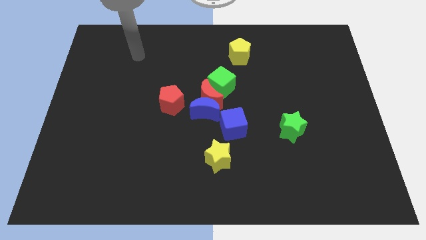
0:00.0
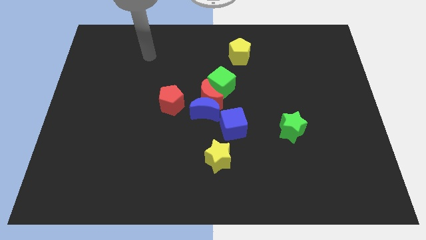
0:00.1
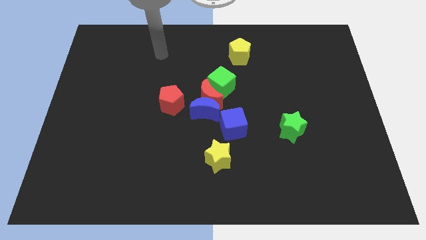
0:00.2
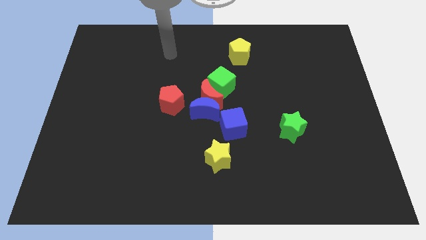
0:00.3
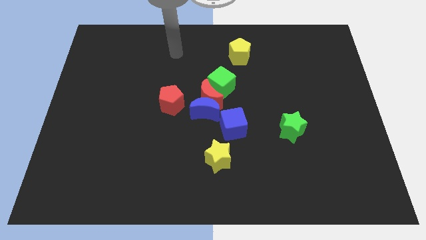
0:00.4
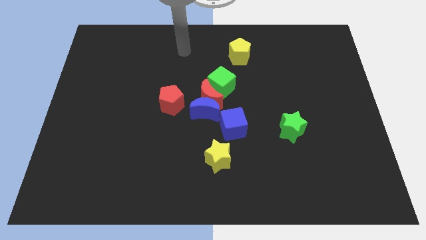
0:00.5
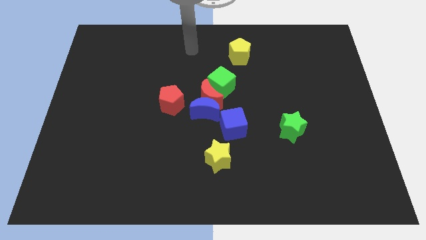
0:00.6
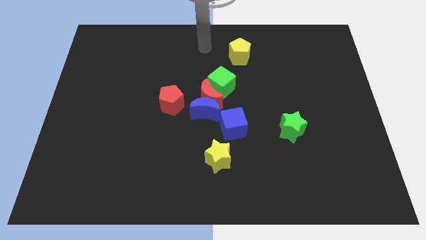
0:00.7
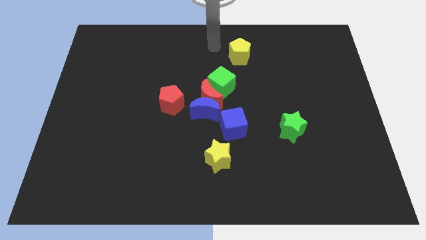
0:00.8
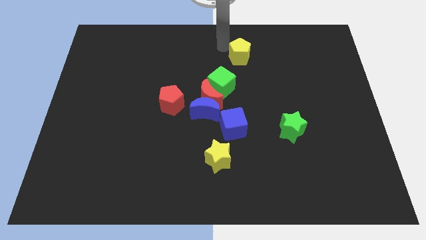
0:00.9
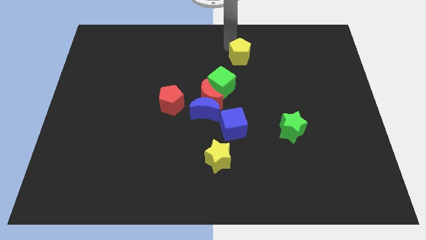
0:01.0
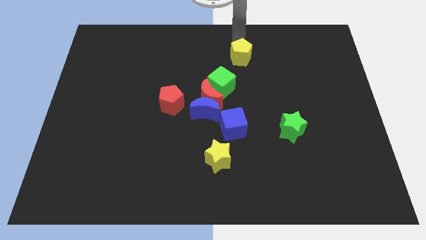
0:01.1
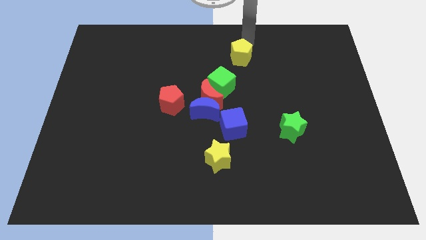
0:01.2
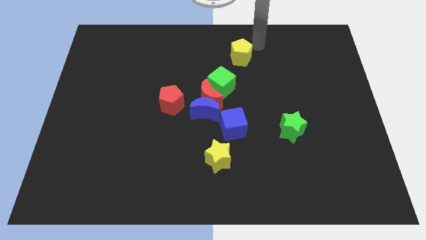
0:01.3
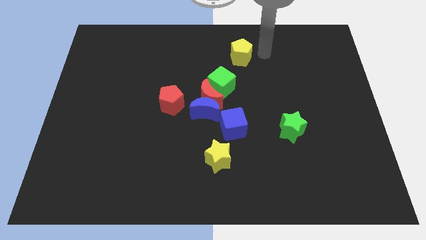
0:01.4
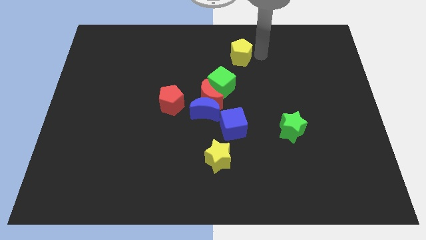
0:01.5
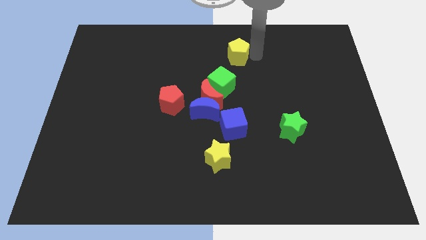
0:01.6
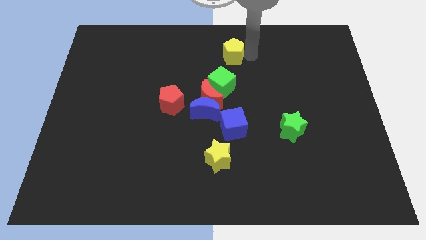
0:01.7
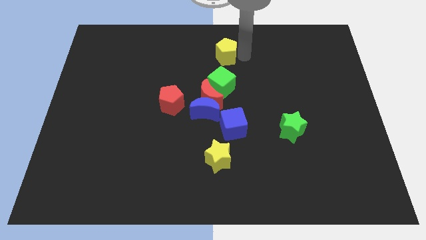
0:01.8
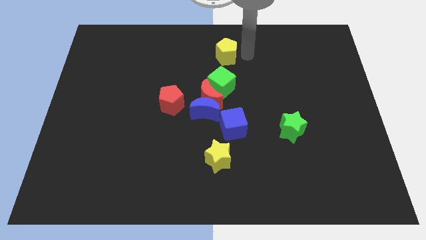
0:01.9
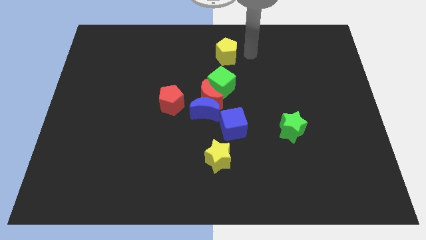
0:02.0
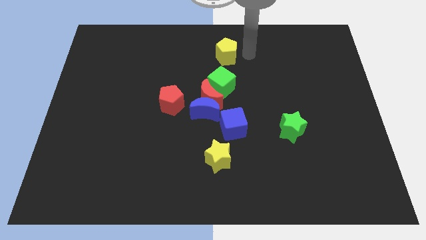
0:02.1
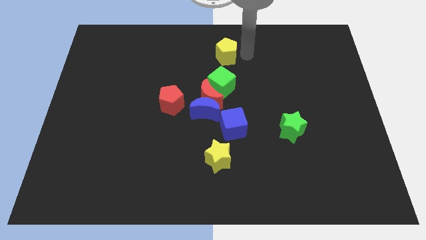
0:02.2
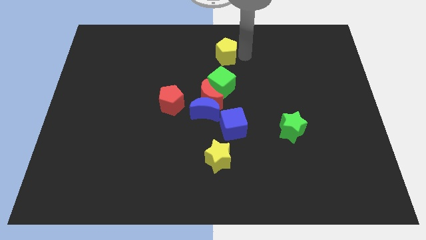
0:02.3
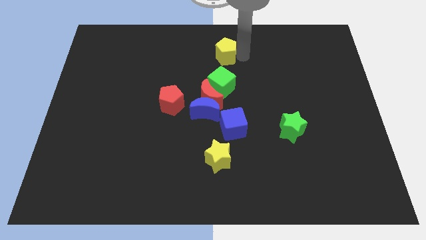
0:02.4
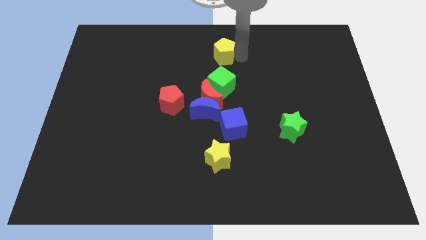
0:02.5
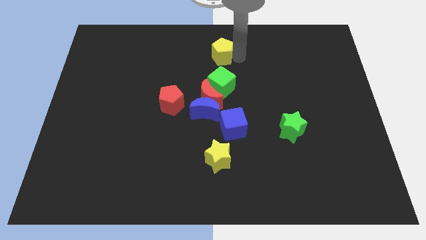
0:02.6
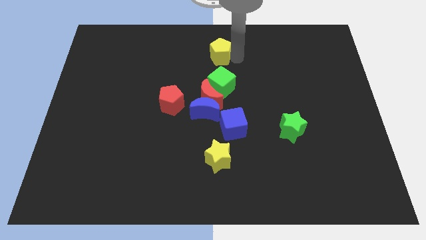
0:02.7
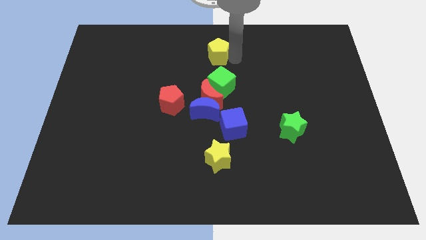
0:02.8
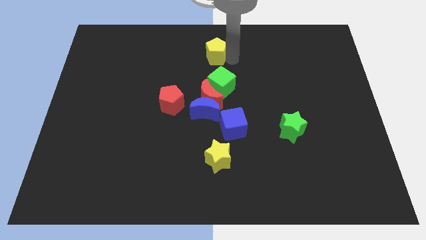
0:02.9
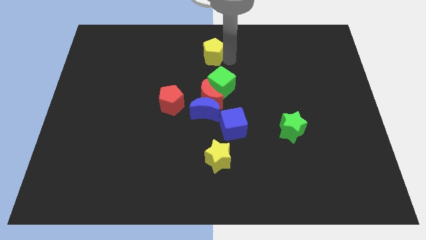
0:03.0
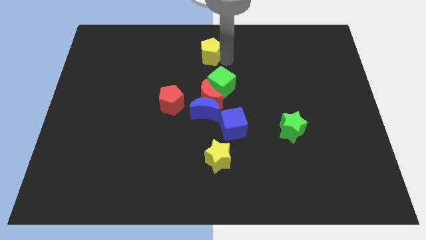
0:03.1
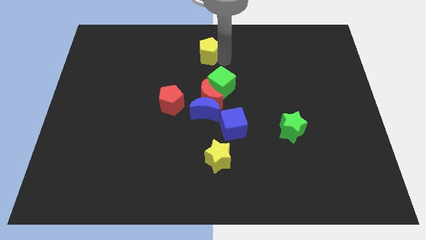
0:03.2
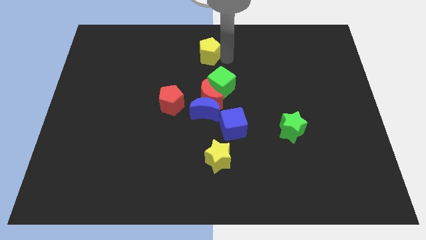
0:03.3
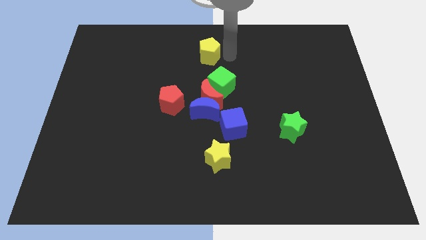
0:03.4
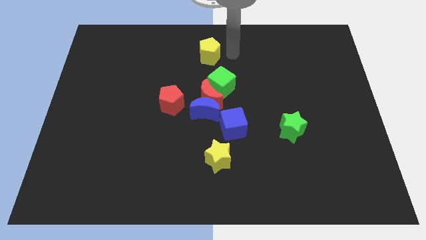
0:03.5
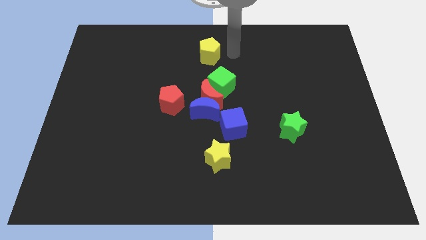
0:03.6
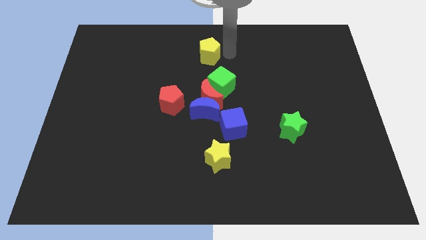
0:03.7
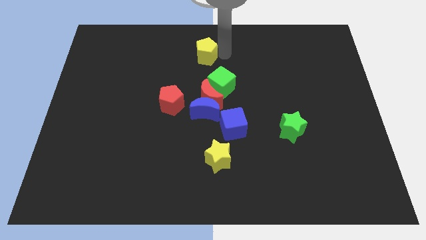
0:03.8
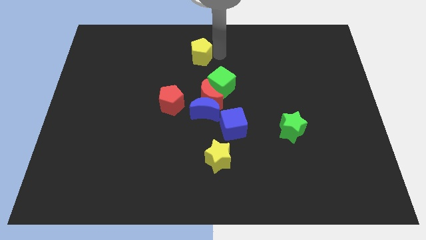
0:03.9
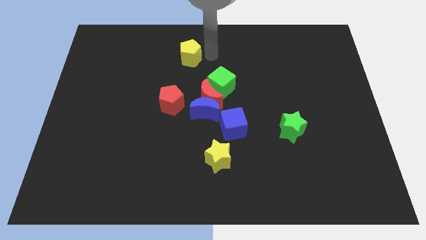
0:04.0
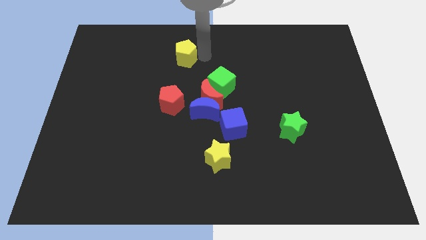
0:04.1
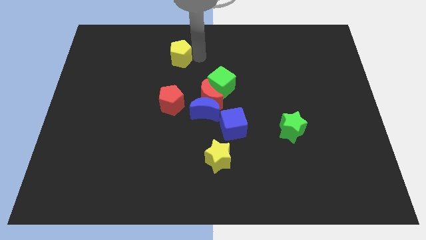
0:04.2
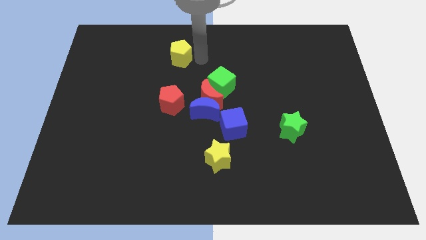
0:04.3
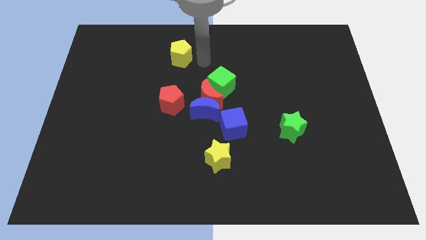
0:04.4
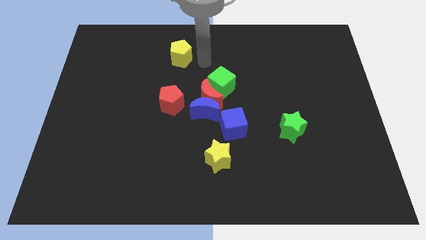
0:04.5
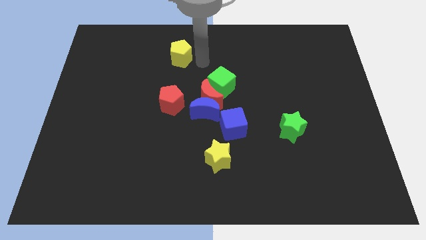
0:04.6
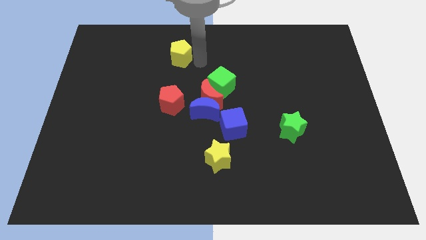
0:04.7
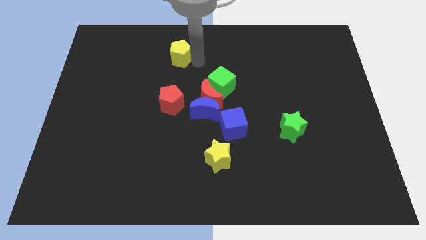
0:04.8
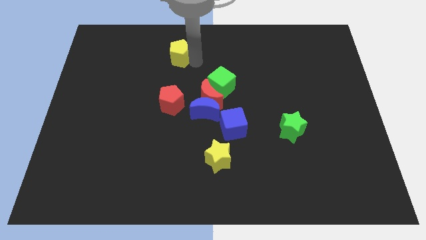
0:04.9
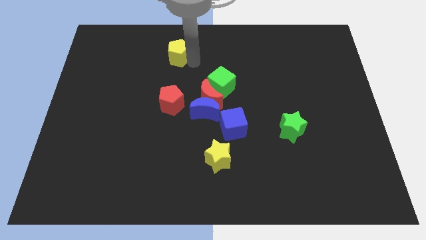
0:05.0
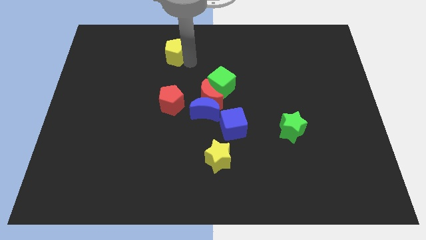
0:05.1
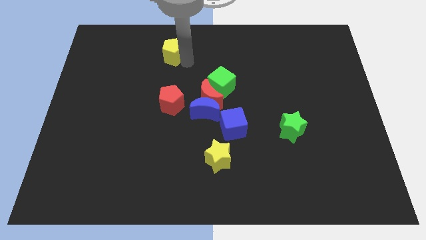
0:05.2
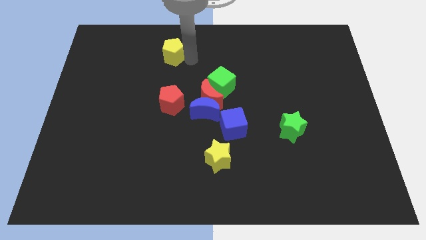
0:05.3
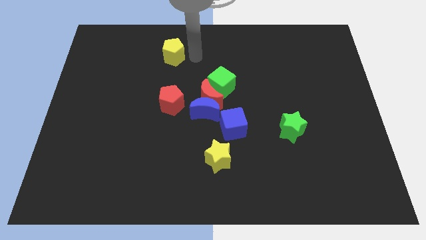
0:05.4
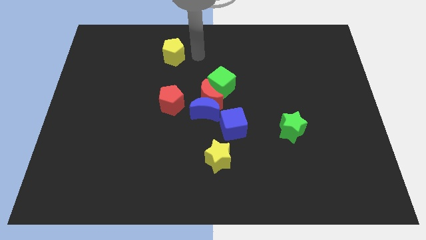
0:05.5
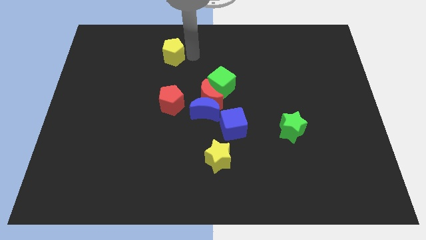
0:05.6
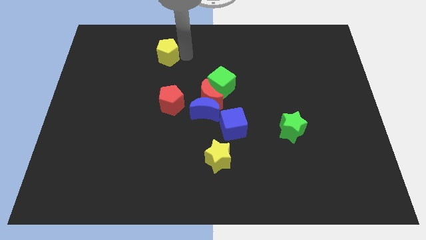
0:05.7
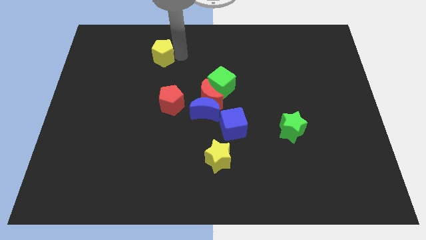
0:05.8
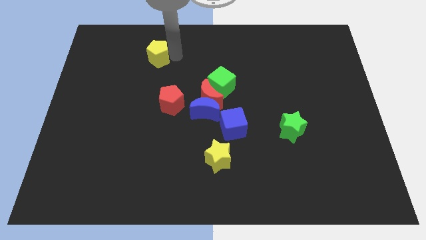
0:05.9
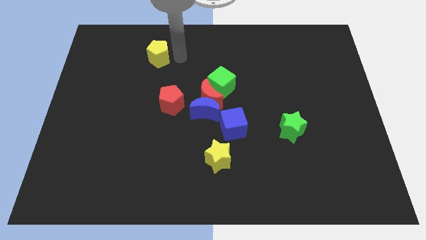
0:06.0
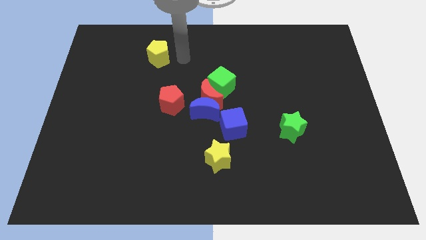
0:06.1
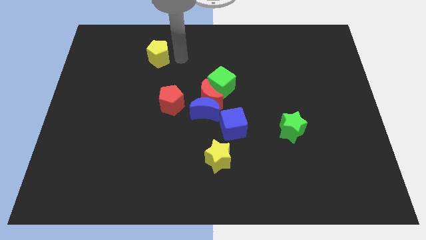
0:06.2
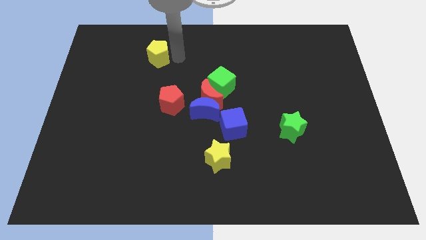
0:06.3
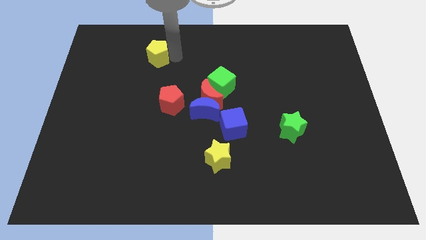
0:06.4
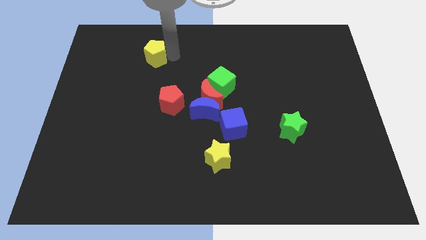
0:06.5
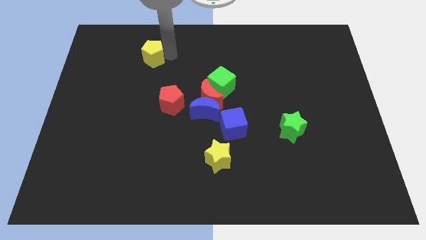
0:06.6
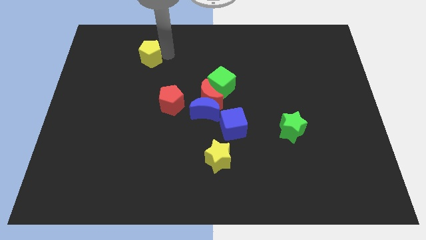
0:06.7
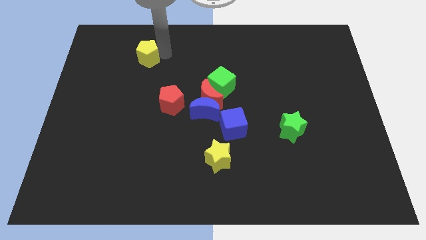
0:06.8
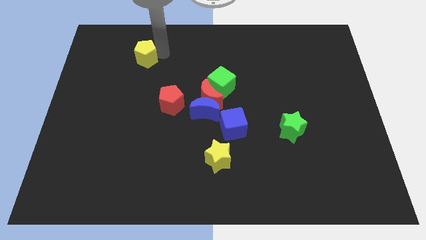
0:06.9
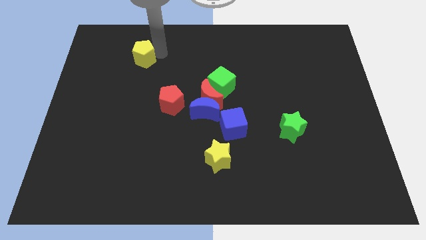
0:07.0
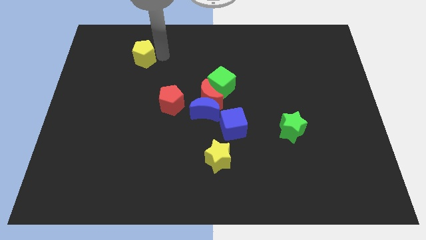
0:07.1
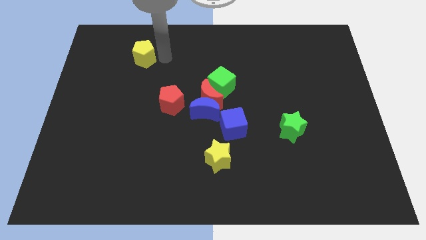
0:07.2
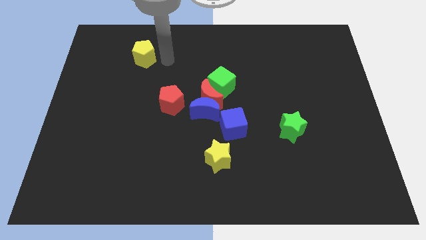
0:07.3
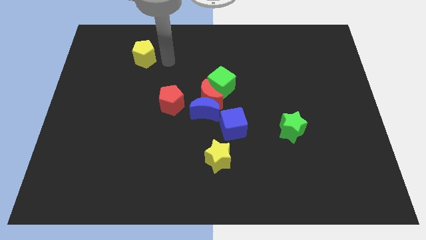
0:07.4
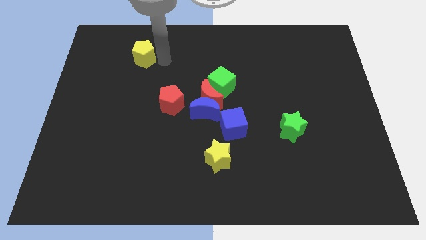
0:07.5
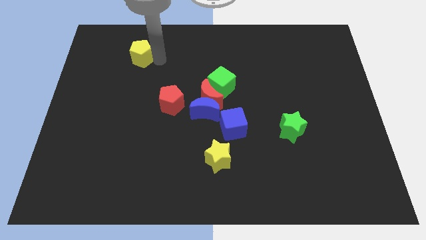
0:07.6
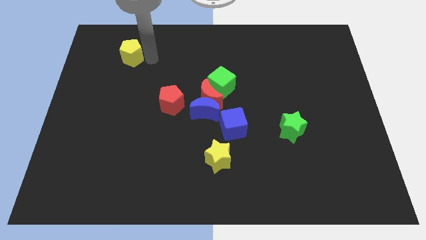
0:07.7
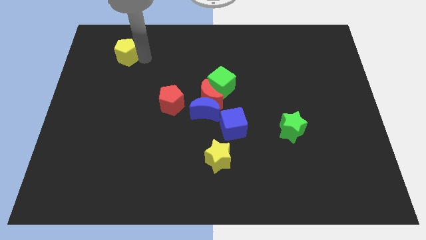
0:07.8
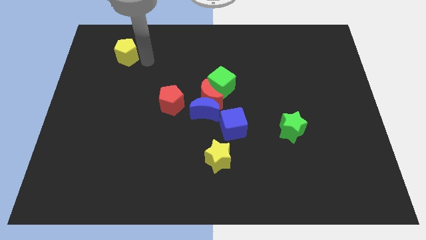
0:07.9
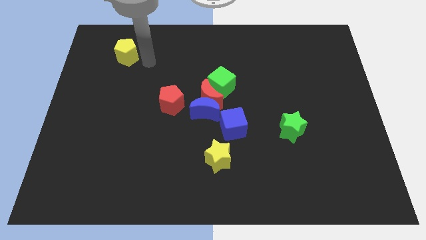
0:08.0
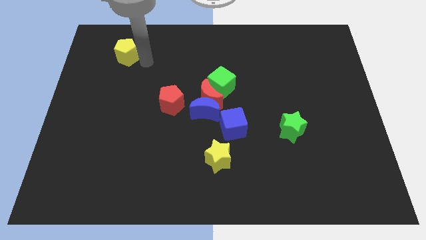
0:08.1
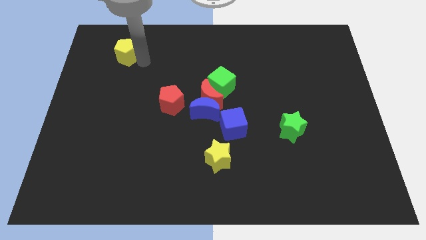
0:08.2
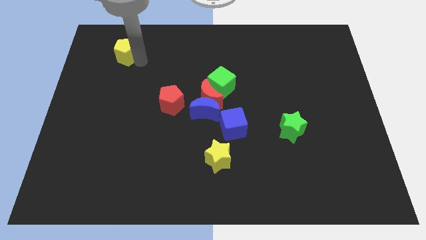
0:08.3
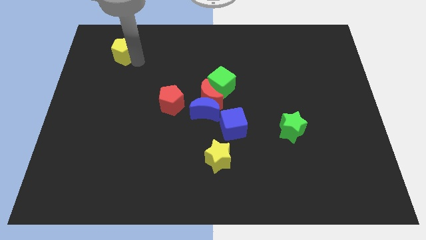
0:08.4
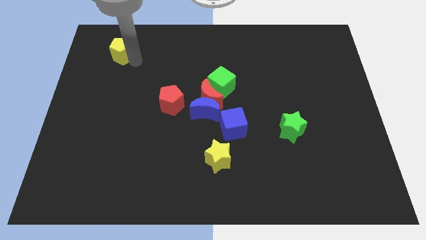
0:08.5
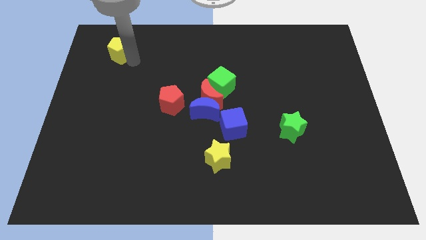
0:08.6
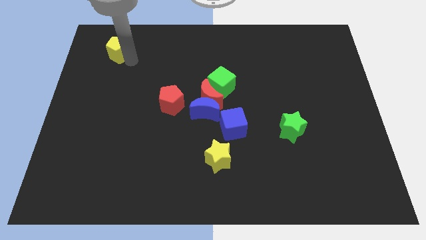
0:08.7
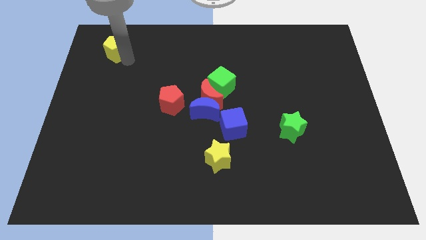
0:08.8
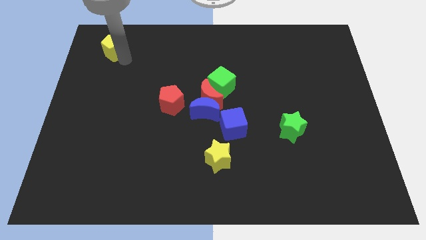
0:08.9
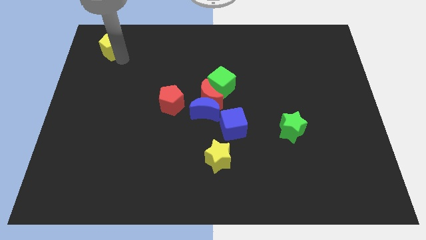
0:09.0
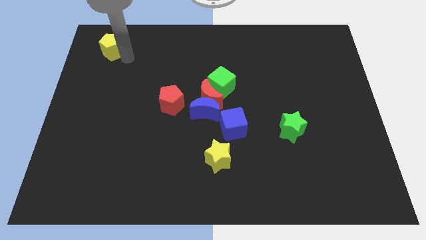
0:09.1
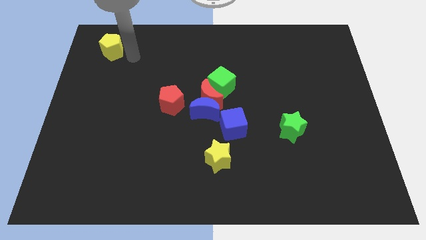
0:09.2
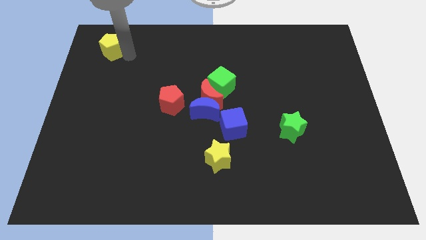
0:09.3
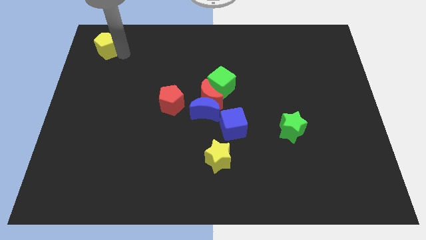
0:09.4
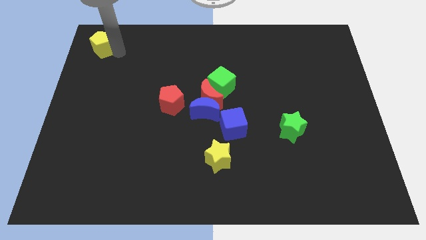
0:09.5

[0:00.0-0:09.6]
put the yellow pentagon to the top left
